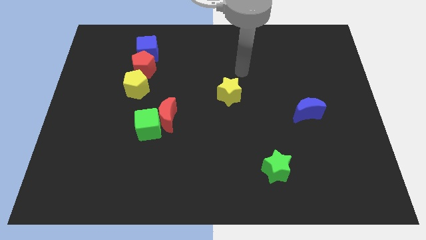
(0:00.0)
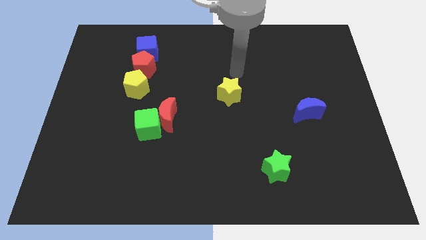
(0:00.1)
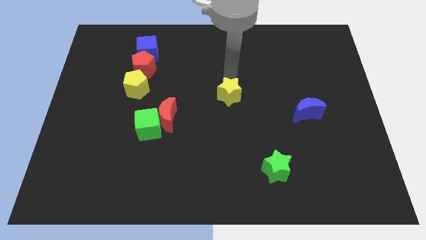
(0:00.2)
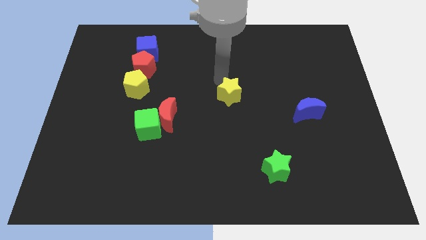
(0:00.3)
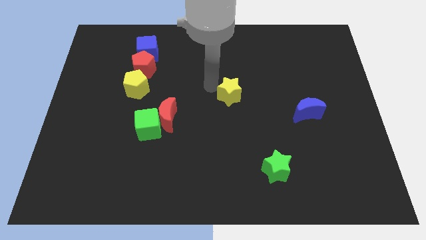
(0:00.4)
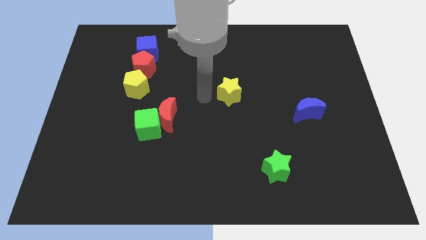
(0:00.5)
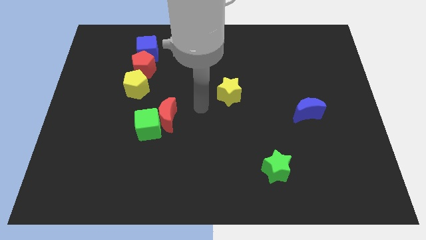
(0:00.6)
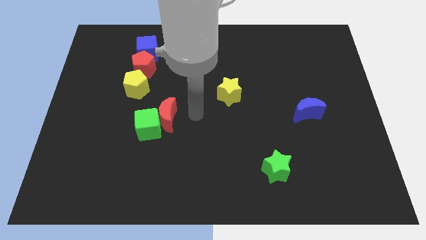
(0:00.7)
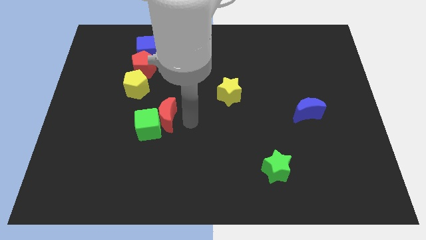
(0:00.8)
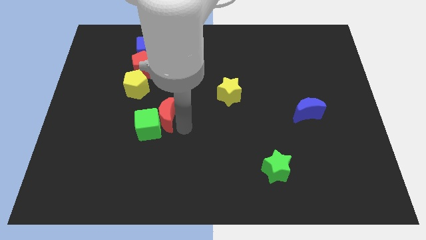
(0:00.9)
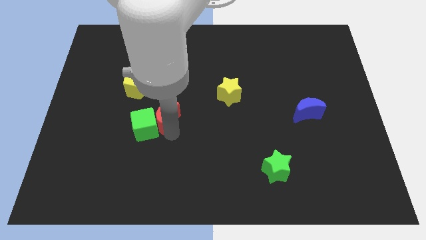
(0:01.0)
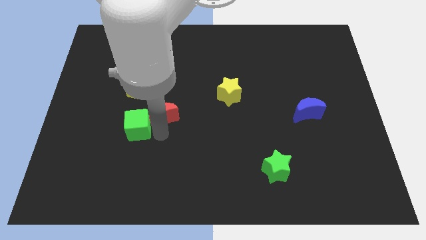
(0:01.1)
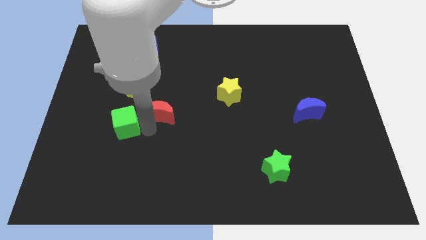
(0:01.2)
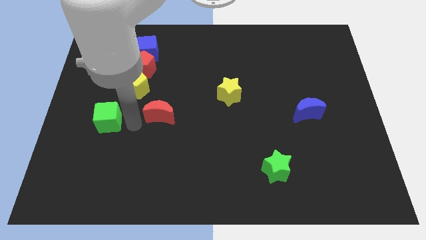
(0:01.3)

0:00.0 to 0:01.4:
separate the red moon from the green cube

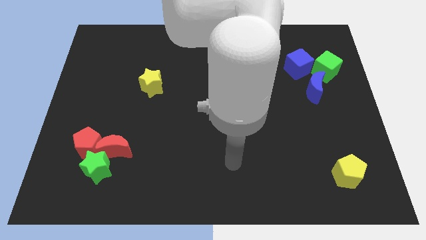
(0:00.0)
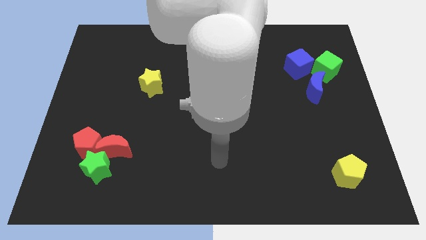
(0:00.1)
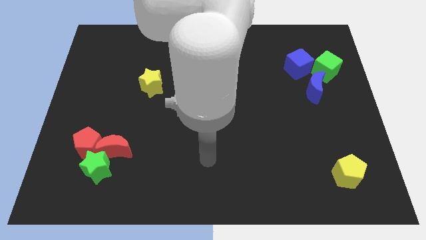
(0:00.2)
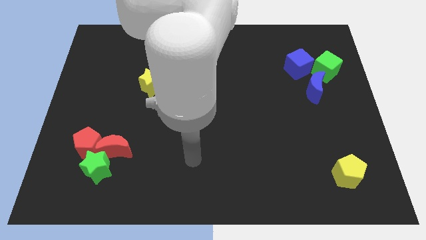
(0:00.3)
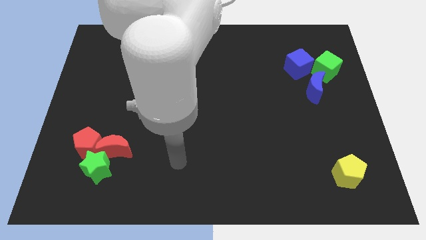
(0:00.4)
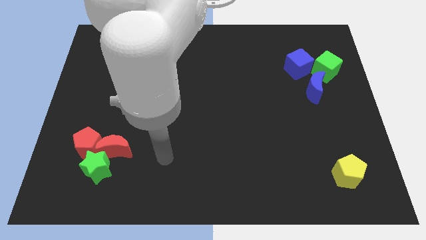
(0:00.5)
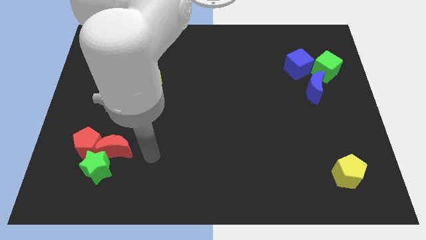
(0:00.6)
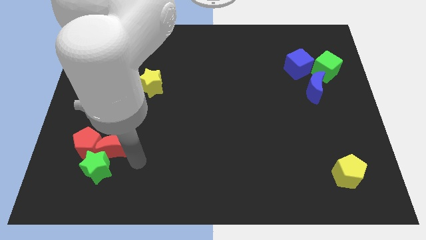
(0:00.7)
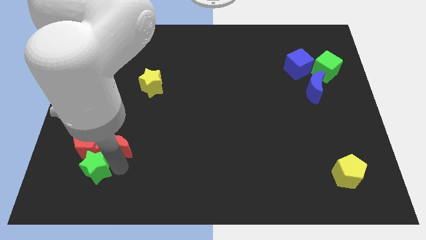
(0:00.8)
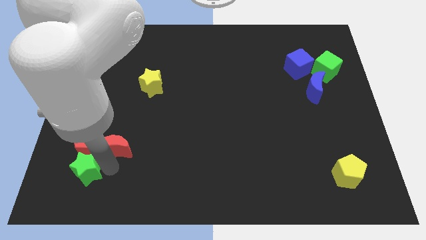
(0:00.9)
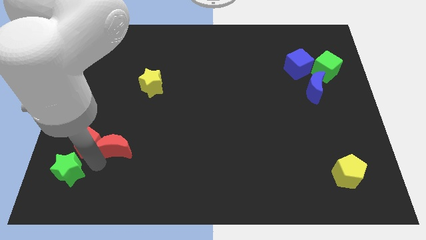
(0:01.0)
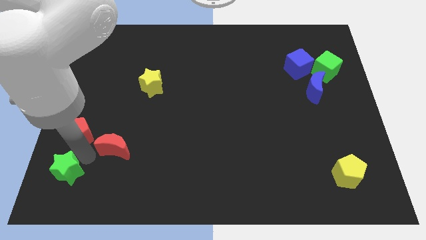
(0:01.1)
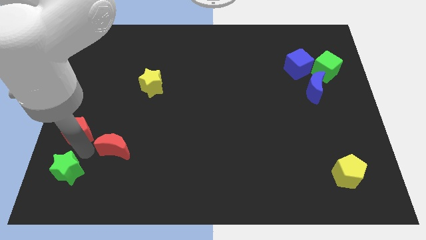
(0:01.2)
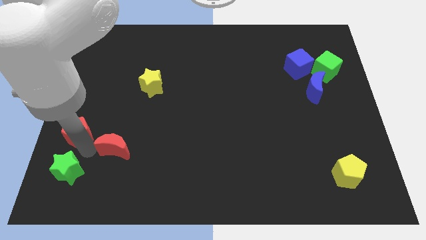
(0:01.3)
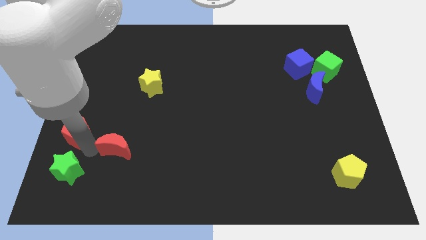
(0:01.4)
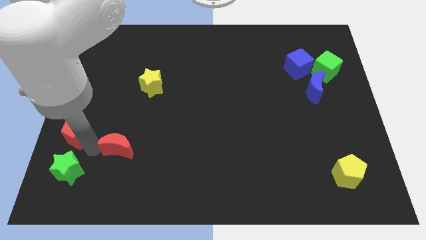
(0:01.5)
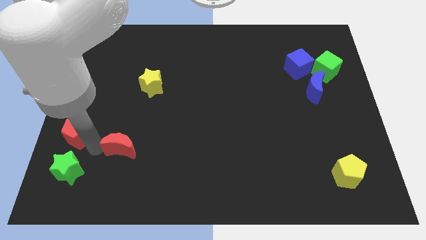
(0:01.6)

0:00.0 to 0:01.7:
separate the red moon from the red pentagon and green star

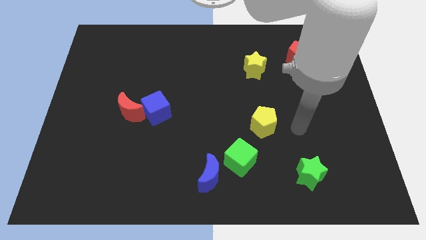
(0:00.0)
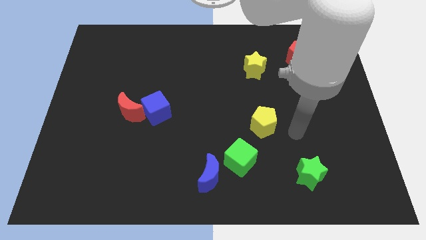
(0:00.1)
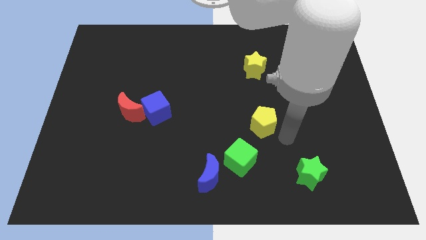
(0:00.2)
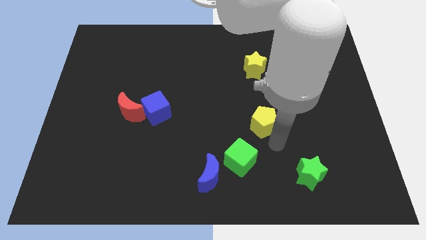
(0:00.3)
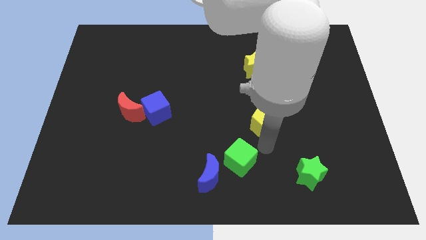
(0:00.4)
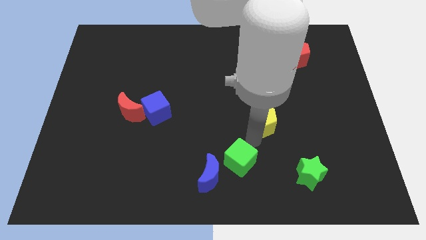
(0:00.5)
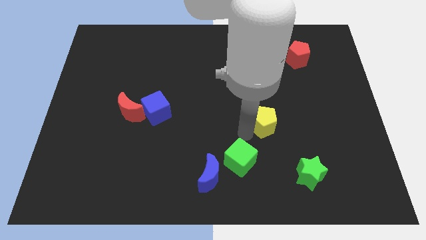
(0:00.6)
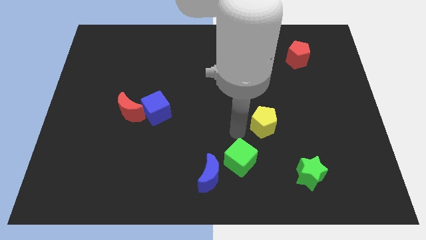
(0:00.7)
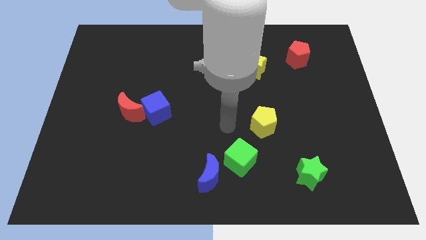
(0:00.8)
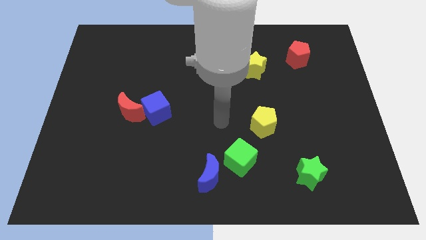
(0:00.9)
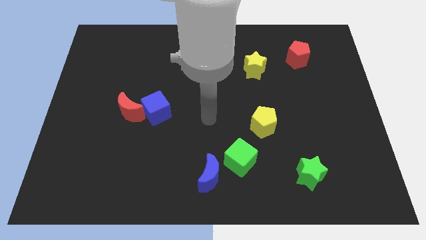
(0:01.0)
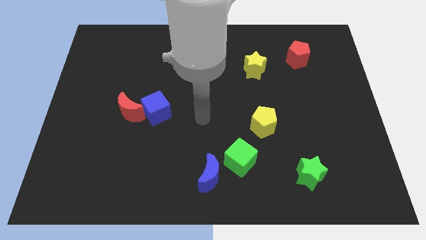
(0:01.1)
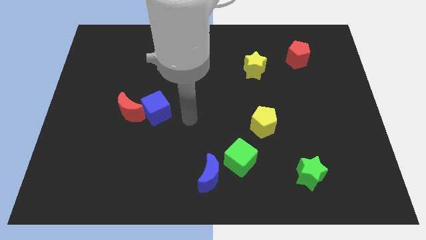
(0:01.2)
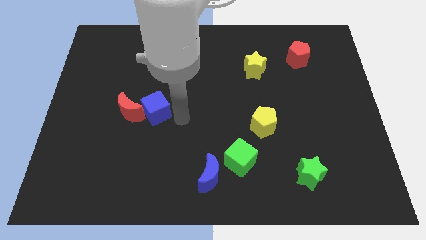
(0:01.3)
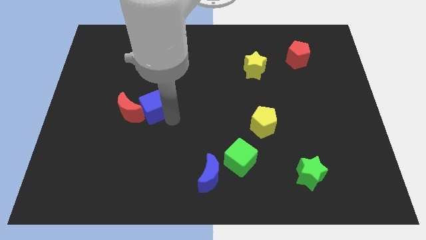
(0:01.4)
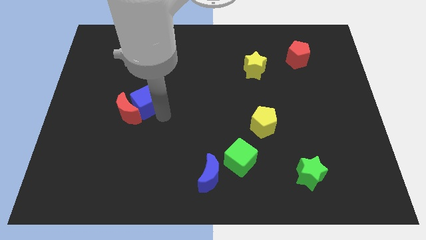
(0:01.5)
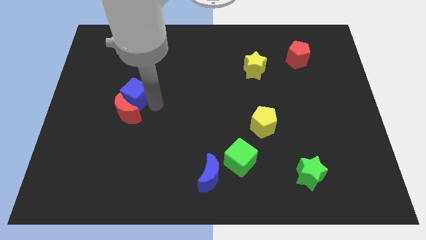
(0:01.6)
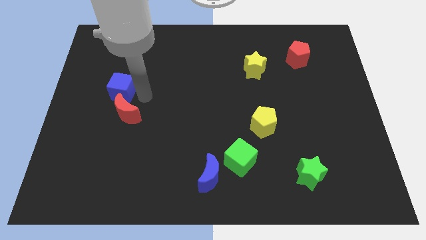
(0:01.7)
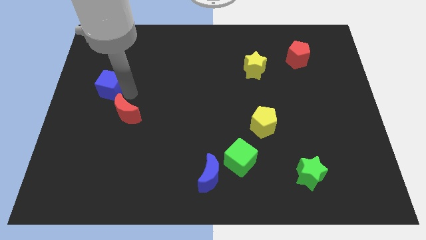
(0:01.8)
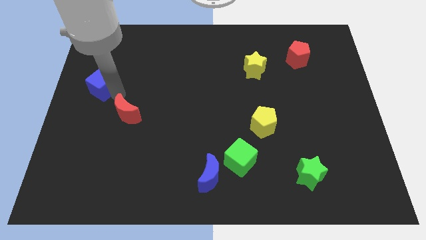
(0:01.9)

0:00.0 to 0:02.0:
move the red moon away from the blue cube

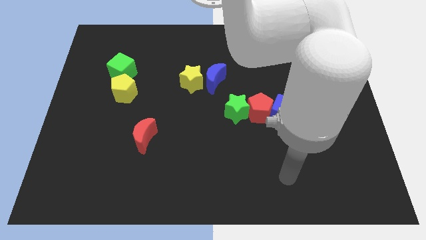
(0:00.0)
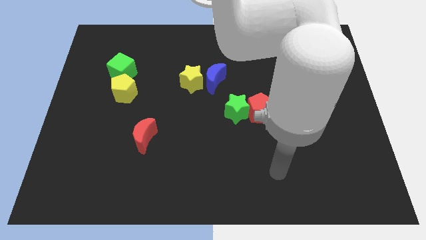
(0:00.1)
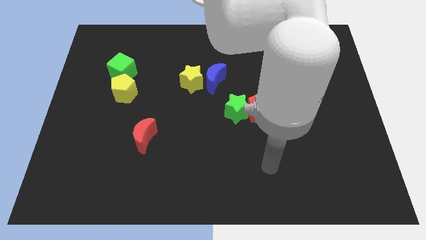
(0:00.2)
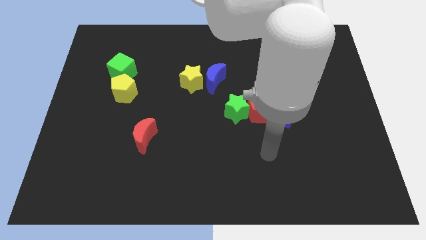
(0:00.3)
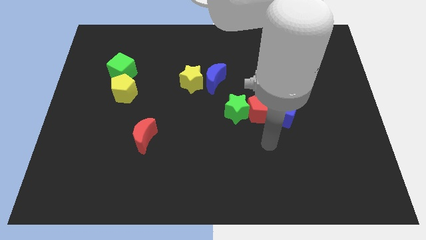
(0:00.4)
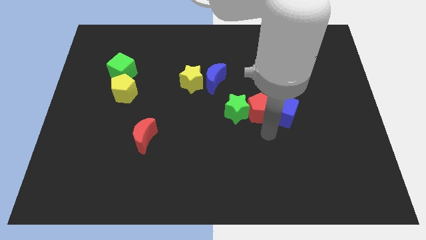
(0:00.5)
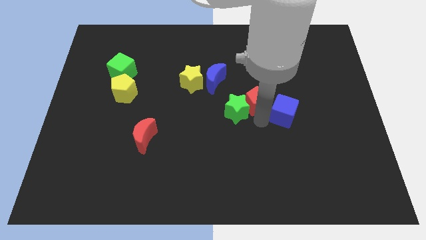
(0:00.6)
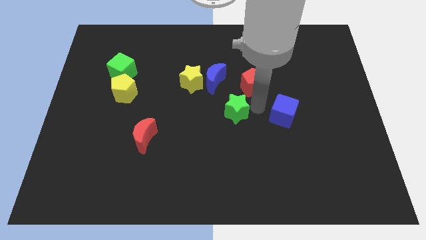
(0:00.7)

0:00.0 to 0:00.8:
move the blue cube away from the red pentagon

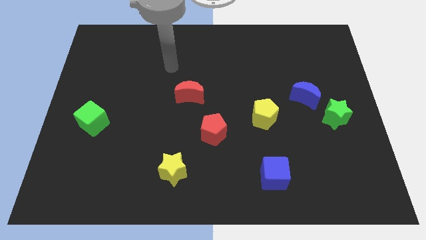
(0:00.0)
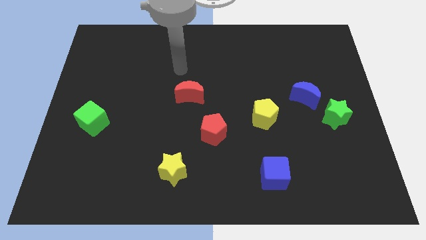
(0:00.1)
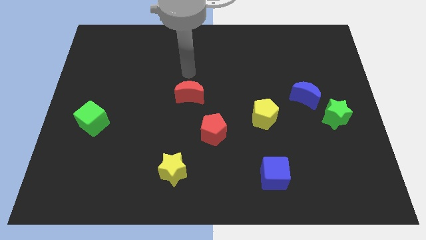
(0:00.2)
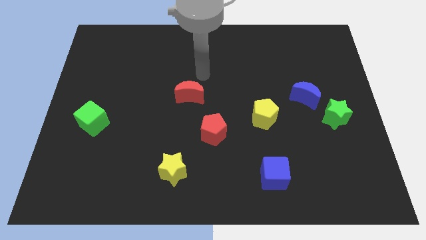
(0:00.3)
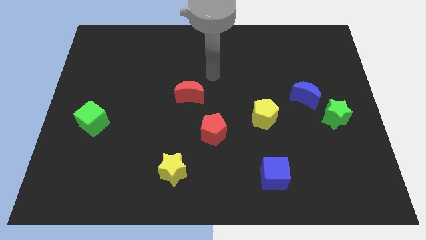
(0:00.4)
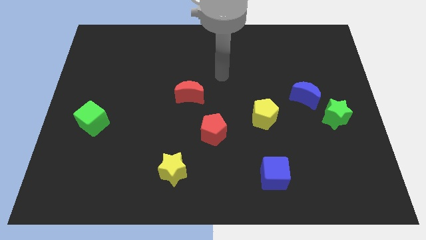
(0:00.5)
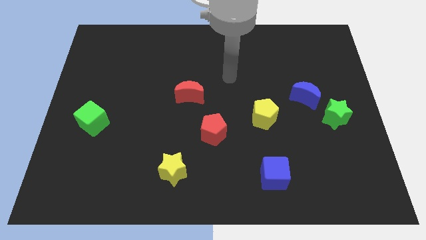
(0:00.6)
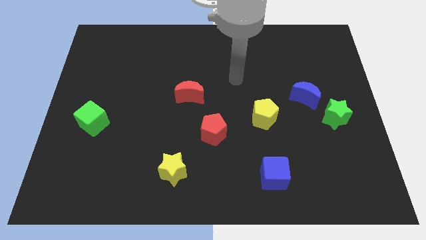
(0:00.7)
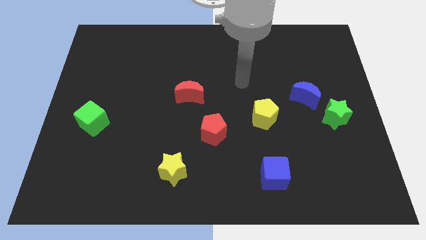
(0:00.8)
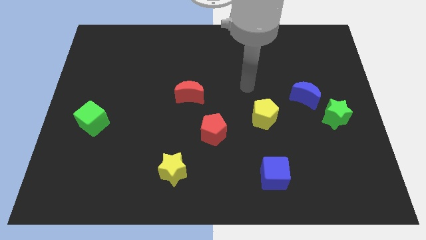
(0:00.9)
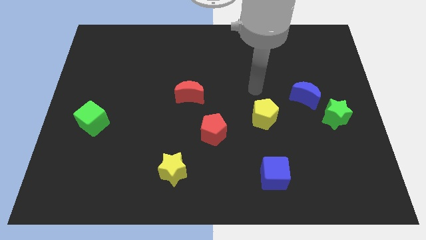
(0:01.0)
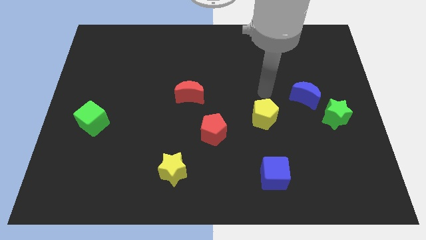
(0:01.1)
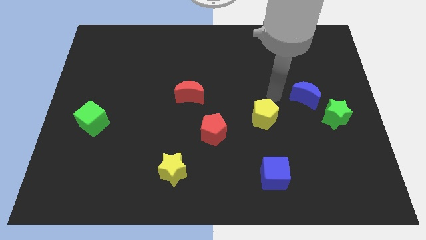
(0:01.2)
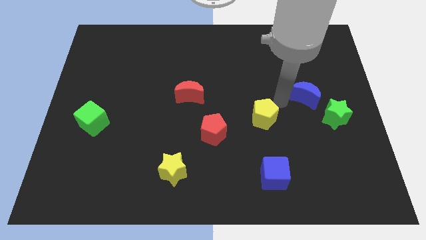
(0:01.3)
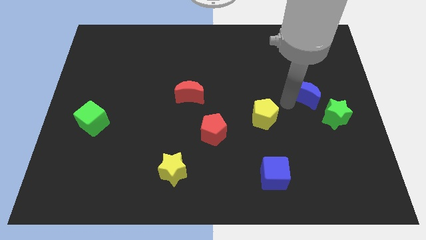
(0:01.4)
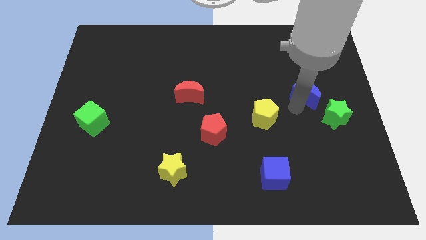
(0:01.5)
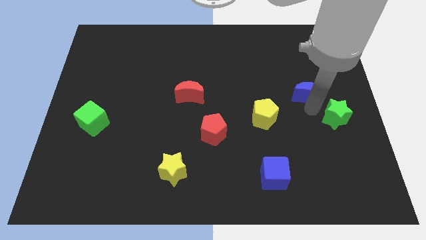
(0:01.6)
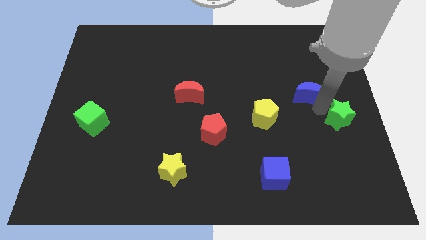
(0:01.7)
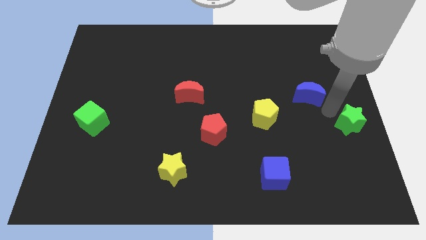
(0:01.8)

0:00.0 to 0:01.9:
separate the blue moon from the green star

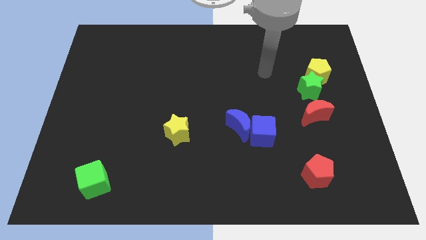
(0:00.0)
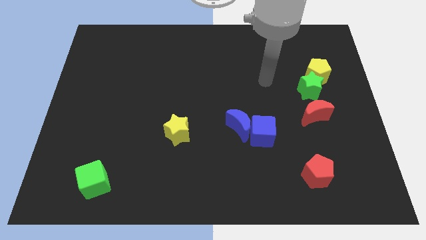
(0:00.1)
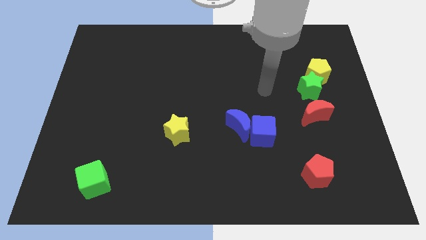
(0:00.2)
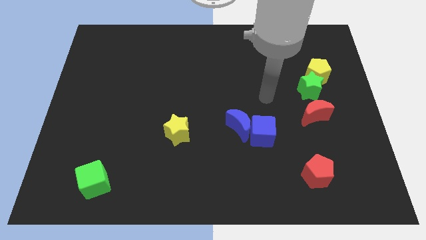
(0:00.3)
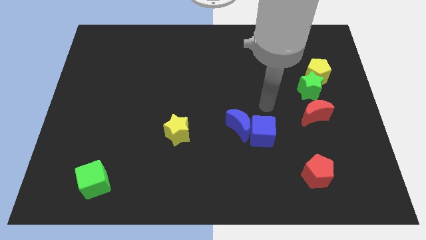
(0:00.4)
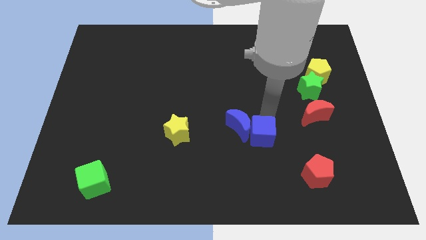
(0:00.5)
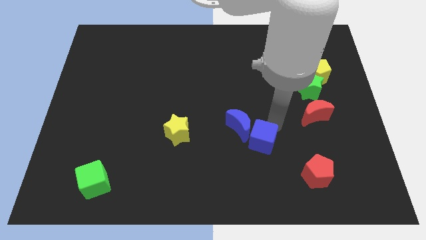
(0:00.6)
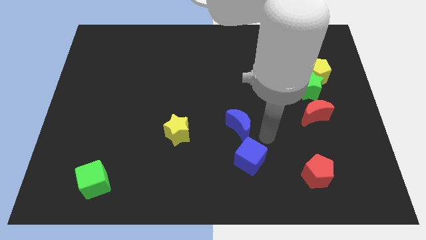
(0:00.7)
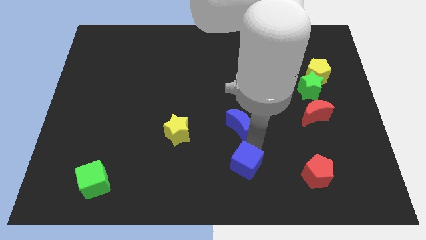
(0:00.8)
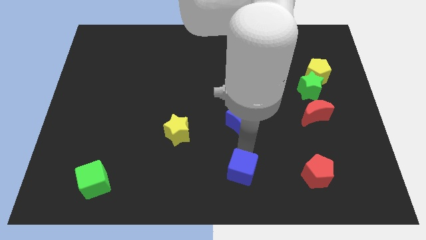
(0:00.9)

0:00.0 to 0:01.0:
separate the blue moon from the blue cube

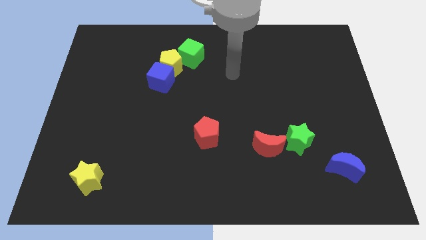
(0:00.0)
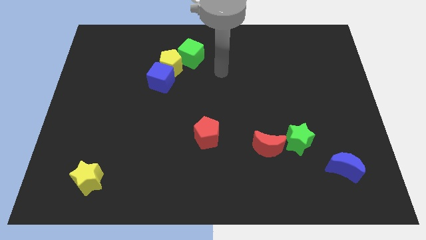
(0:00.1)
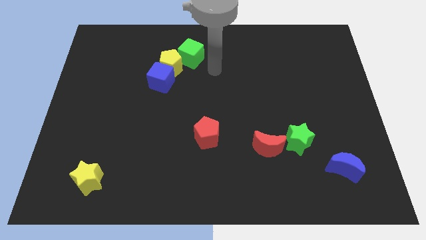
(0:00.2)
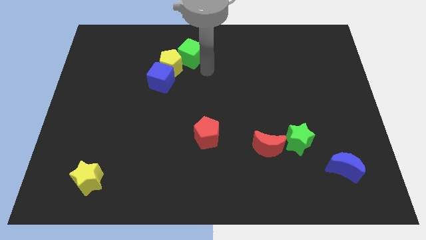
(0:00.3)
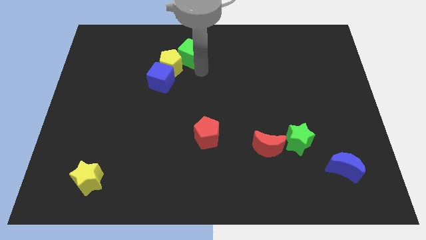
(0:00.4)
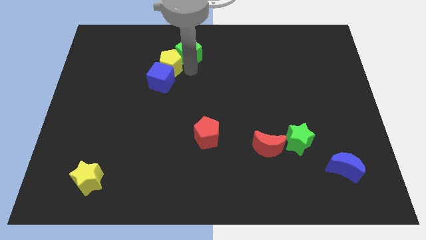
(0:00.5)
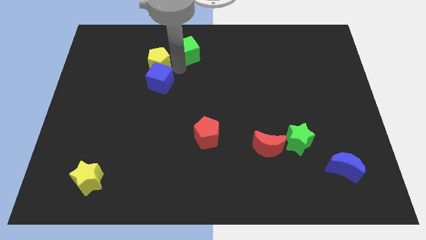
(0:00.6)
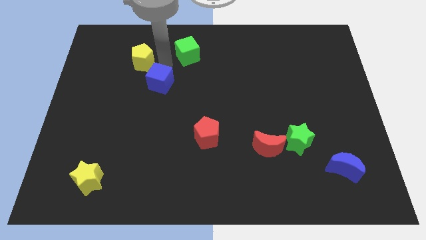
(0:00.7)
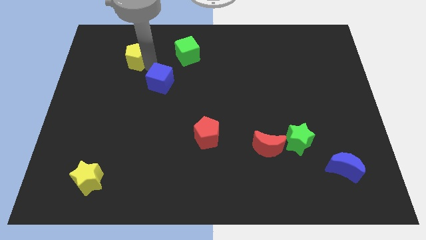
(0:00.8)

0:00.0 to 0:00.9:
separate the blue cube from the yellow pentagon
